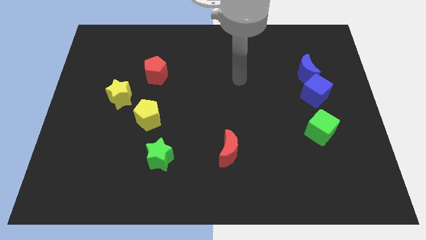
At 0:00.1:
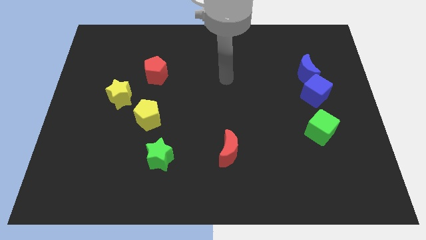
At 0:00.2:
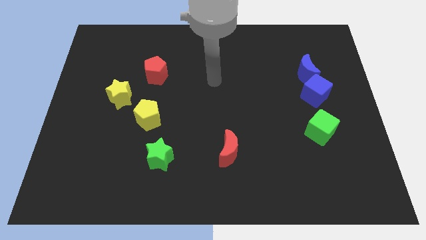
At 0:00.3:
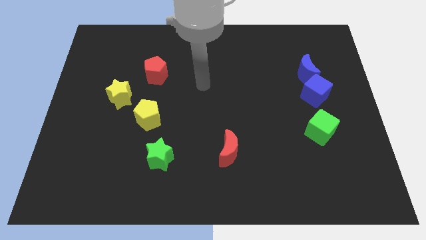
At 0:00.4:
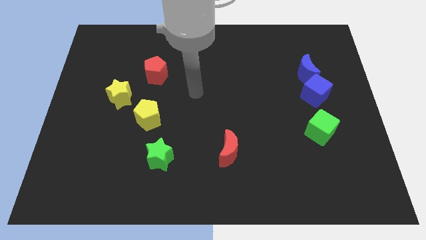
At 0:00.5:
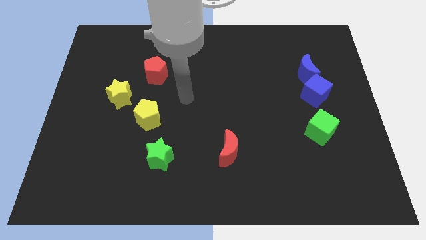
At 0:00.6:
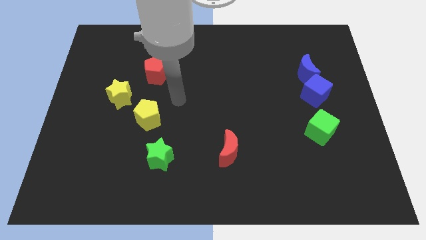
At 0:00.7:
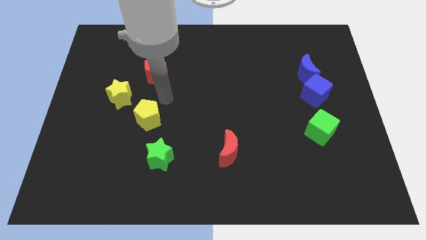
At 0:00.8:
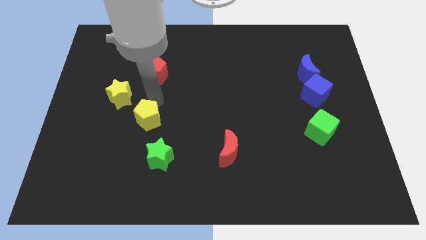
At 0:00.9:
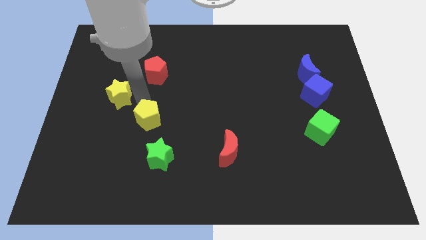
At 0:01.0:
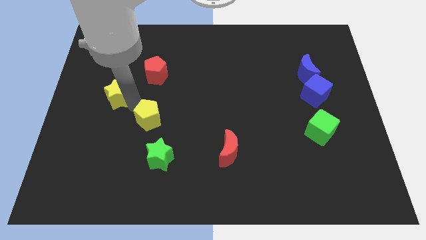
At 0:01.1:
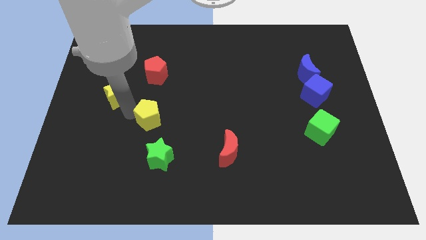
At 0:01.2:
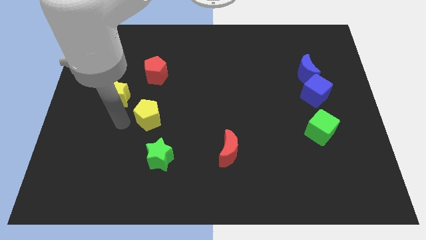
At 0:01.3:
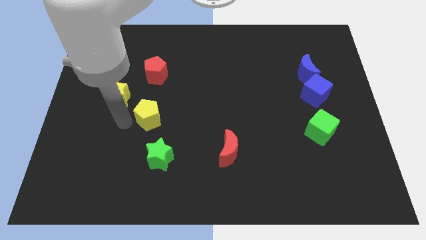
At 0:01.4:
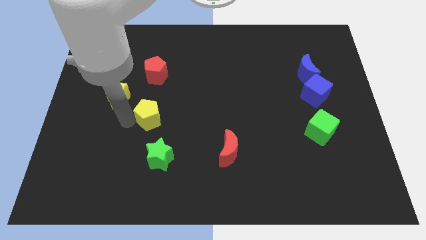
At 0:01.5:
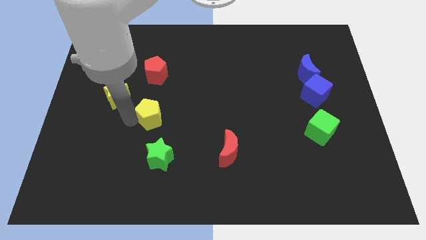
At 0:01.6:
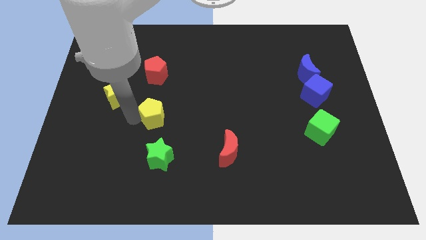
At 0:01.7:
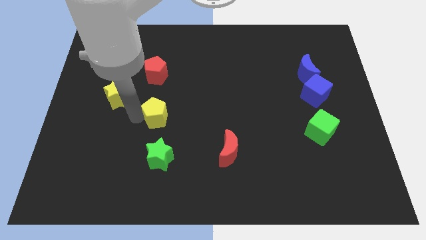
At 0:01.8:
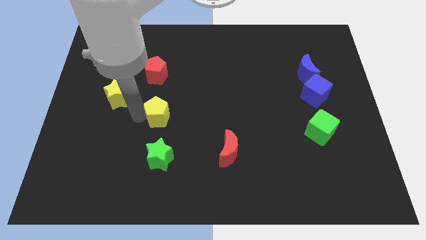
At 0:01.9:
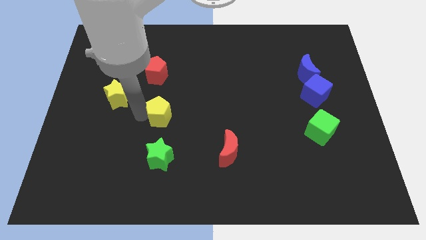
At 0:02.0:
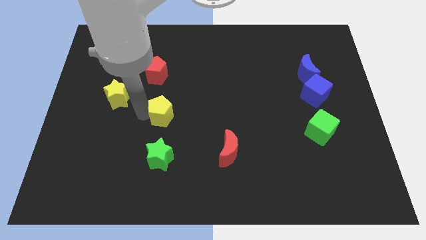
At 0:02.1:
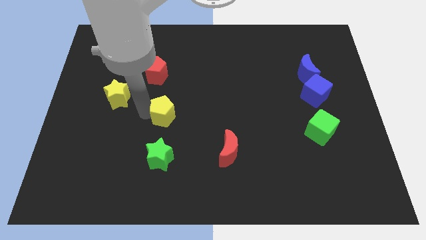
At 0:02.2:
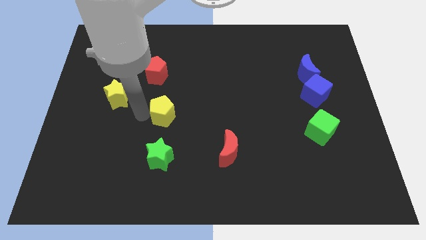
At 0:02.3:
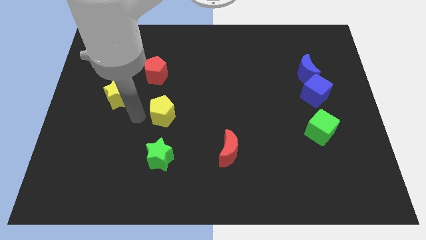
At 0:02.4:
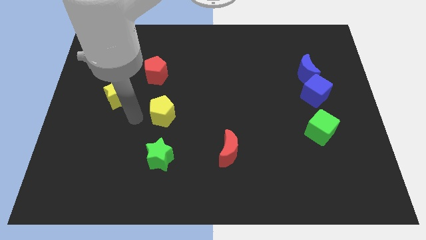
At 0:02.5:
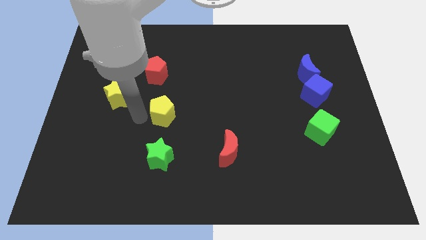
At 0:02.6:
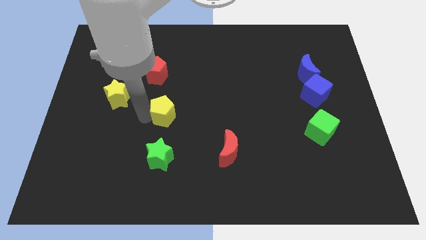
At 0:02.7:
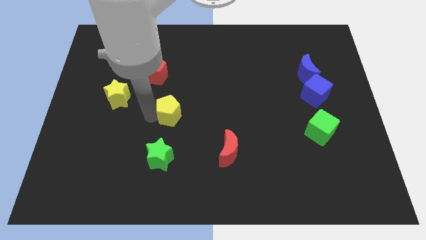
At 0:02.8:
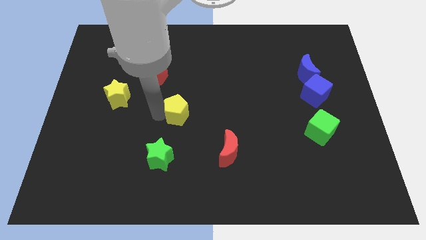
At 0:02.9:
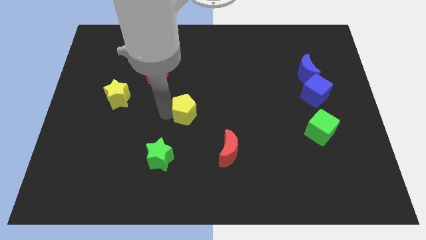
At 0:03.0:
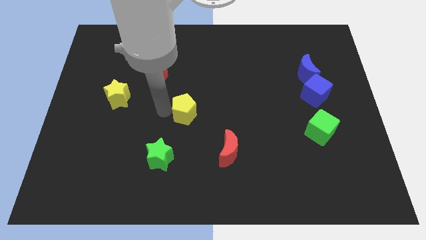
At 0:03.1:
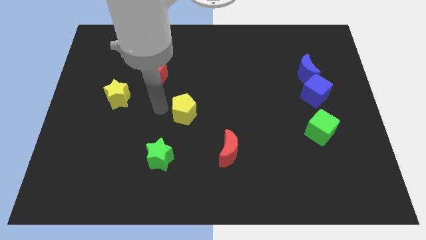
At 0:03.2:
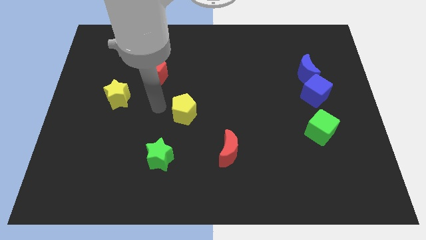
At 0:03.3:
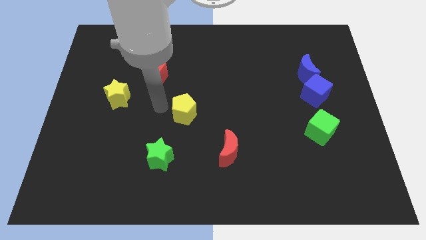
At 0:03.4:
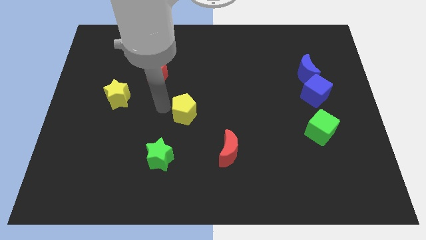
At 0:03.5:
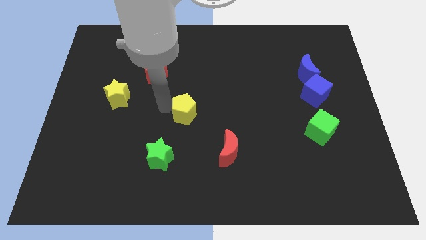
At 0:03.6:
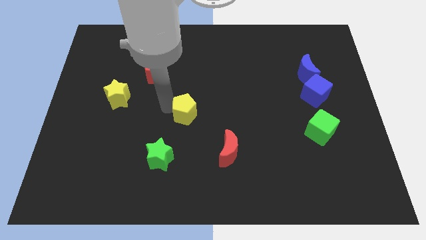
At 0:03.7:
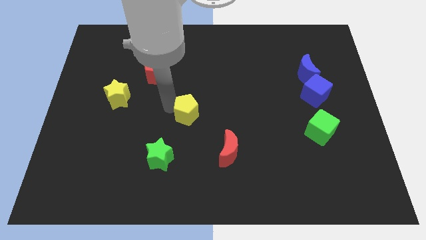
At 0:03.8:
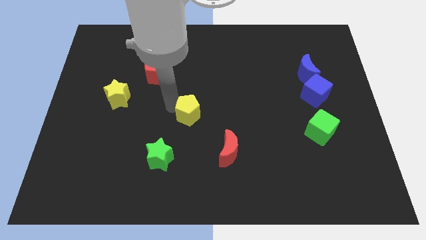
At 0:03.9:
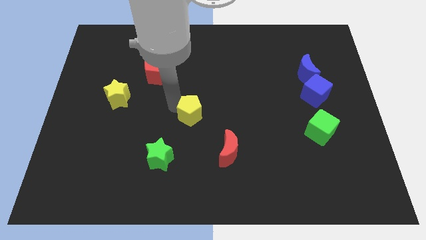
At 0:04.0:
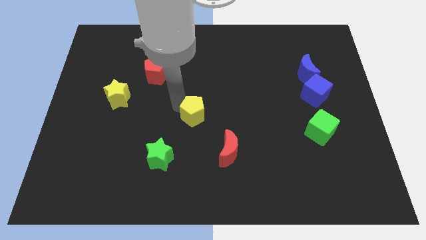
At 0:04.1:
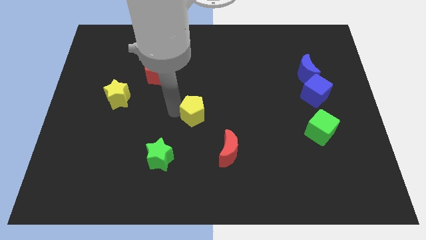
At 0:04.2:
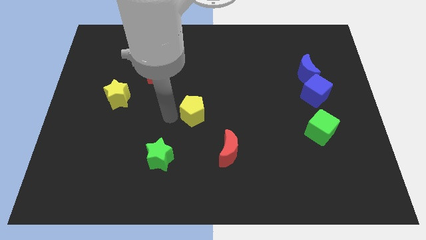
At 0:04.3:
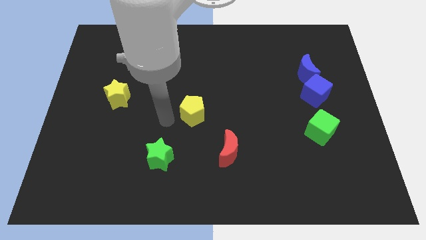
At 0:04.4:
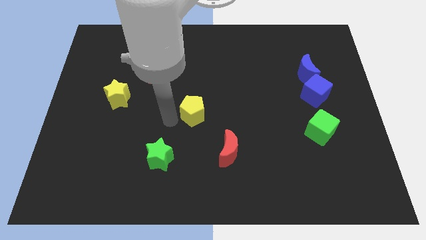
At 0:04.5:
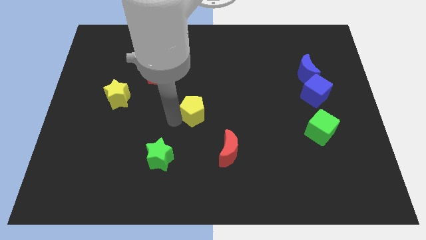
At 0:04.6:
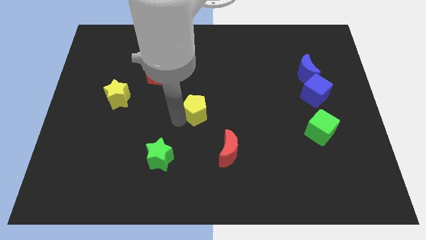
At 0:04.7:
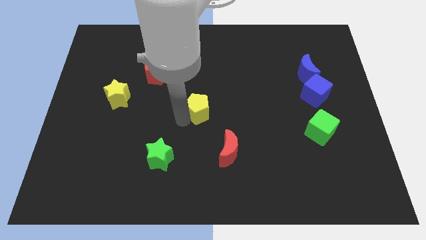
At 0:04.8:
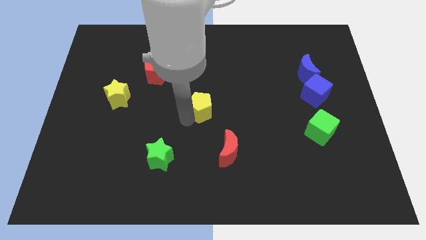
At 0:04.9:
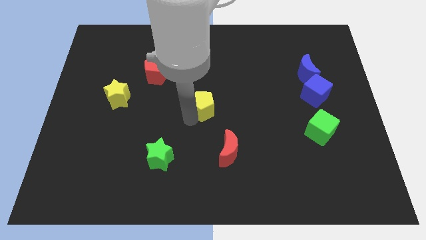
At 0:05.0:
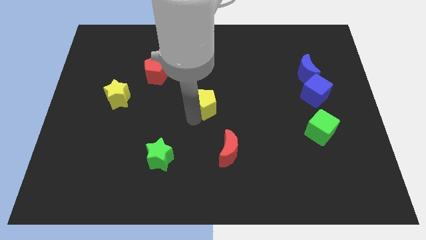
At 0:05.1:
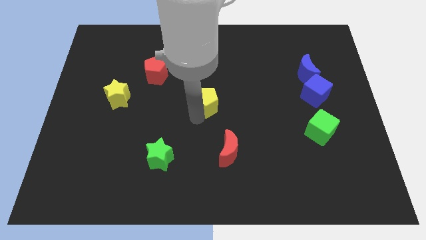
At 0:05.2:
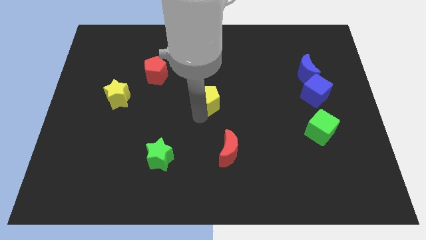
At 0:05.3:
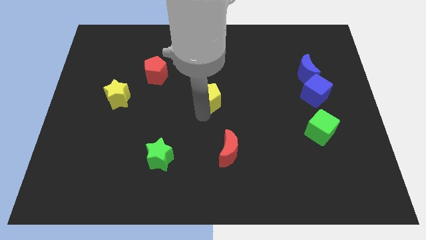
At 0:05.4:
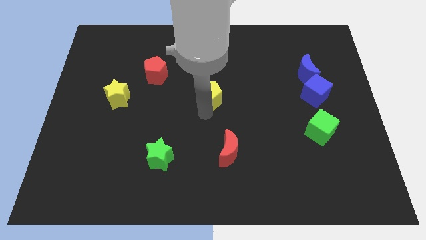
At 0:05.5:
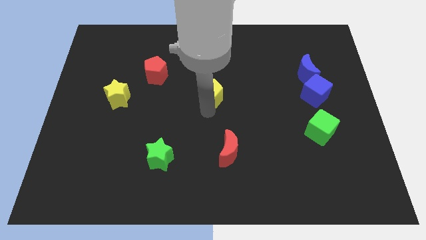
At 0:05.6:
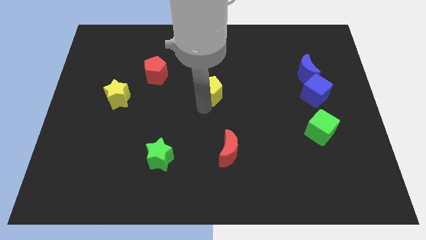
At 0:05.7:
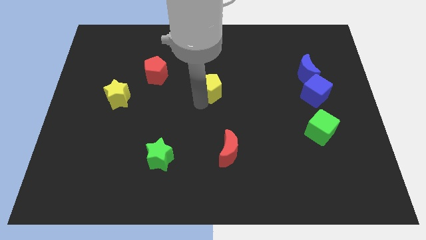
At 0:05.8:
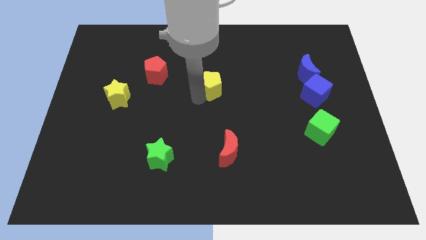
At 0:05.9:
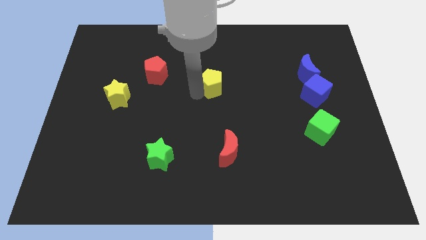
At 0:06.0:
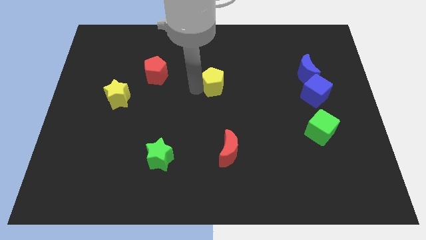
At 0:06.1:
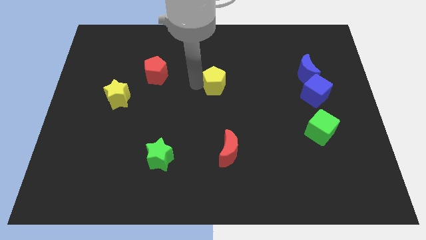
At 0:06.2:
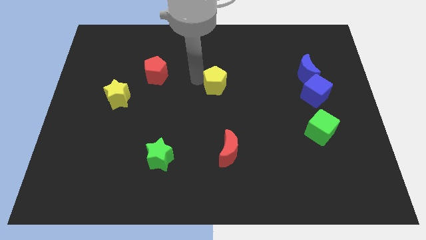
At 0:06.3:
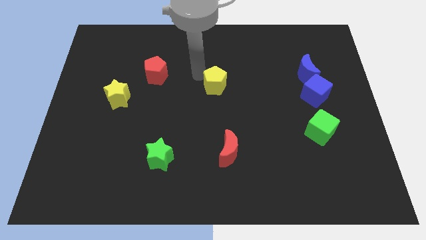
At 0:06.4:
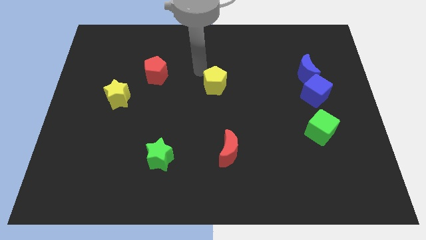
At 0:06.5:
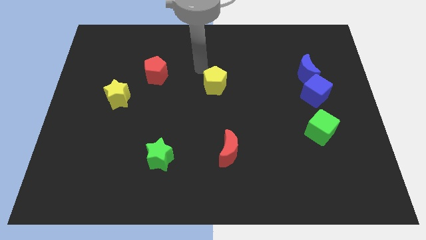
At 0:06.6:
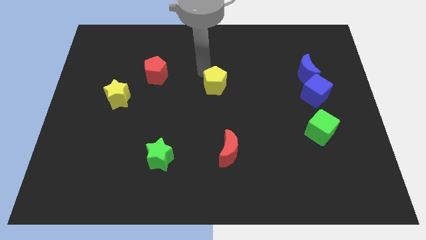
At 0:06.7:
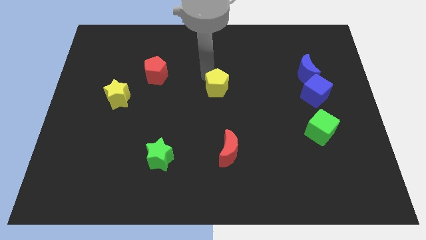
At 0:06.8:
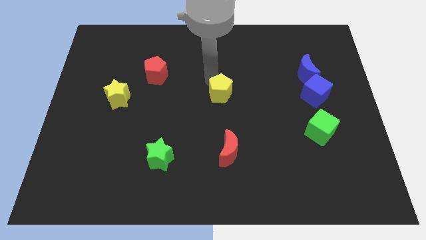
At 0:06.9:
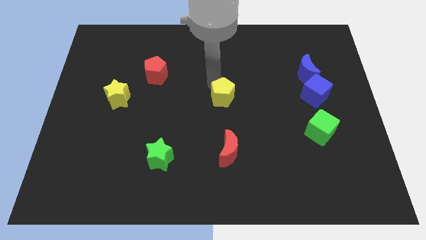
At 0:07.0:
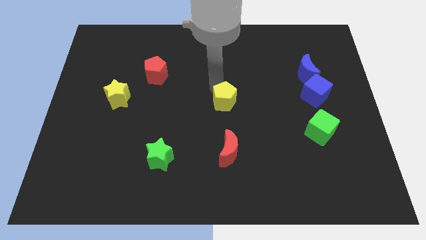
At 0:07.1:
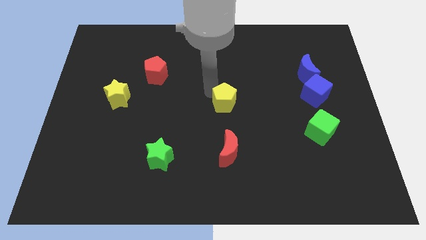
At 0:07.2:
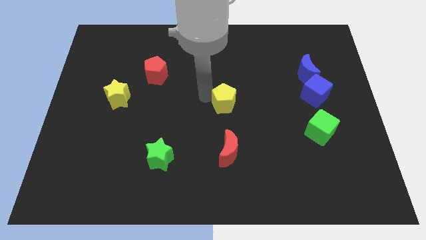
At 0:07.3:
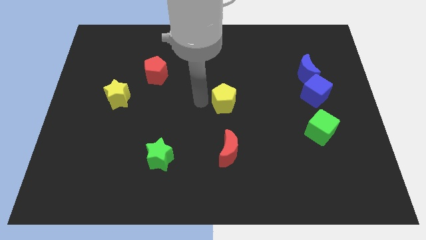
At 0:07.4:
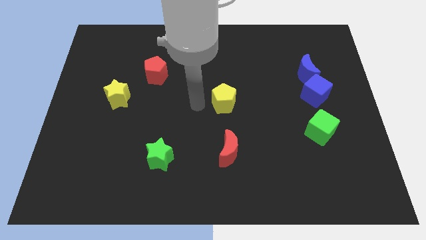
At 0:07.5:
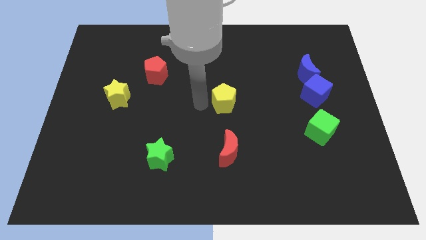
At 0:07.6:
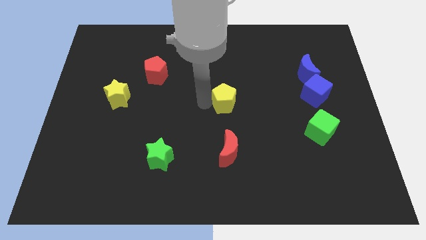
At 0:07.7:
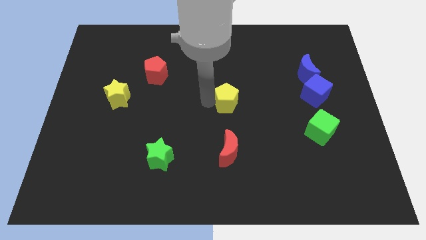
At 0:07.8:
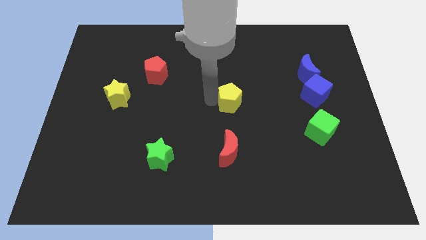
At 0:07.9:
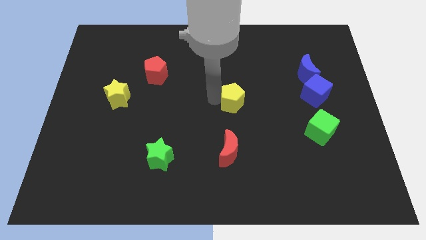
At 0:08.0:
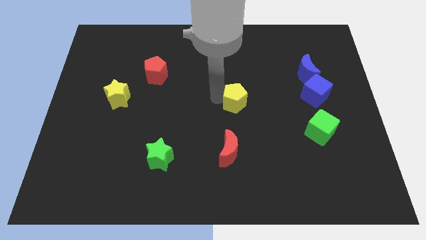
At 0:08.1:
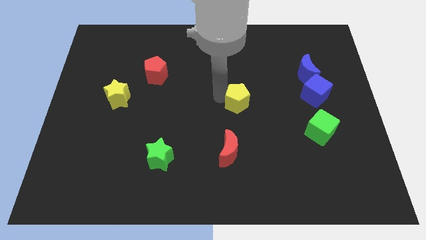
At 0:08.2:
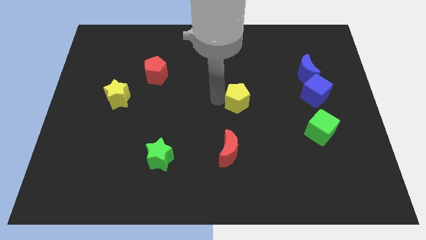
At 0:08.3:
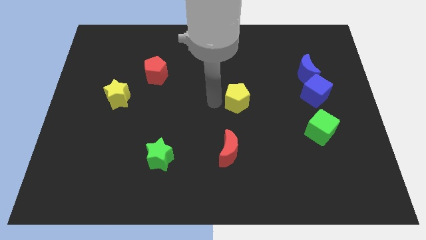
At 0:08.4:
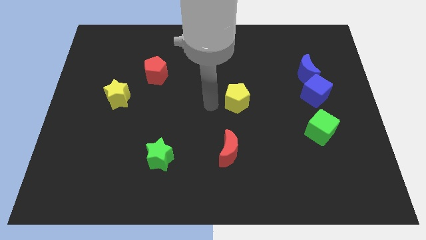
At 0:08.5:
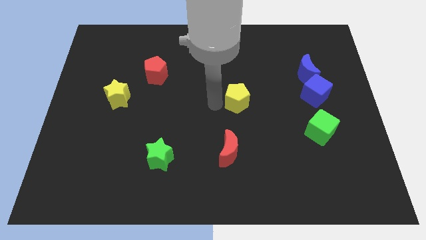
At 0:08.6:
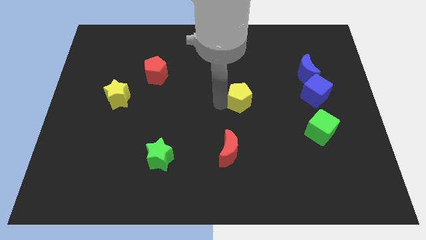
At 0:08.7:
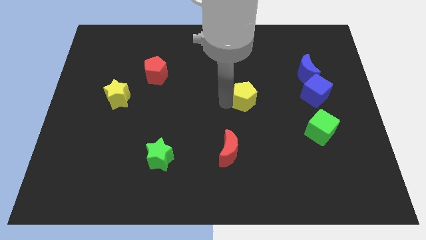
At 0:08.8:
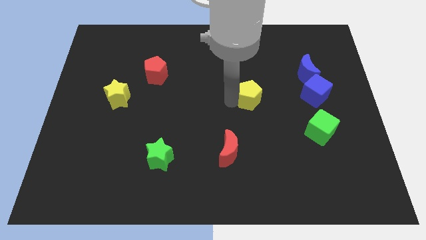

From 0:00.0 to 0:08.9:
put the yellow pentagon to the left side of the blue cube
